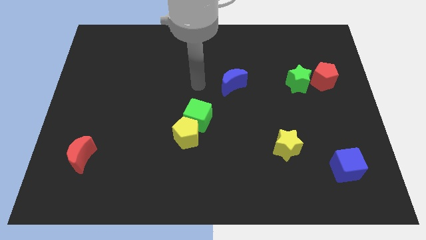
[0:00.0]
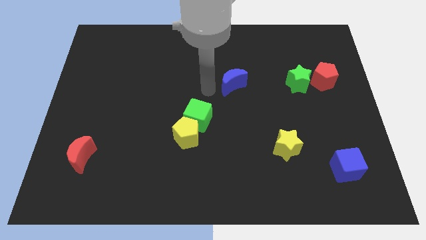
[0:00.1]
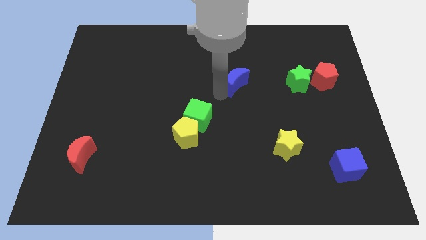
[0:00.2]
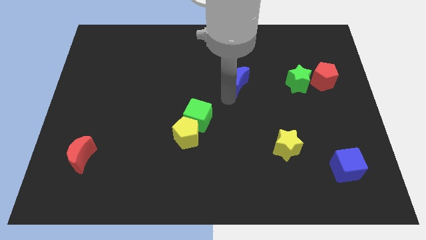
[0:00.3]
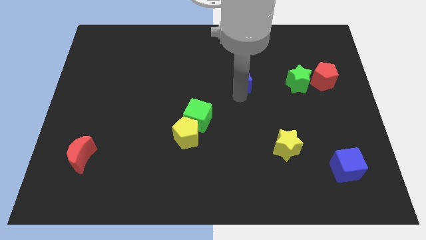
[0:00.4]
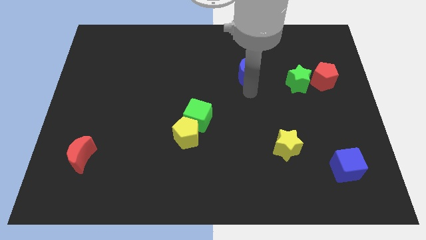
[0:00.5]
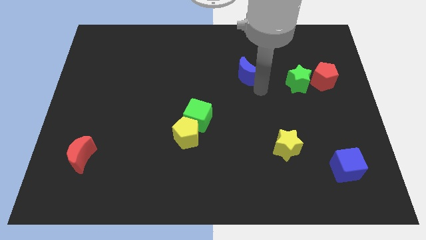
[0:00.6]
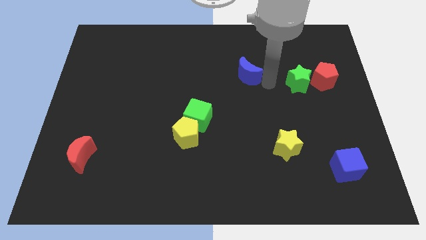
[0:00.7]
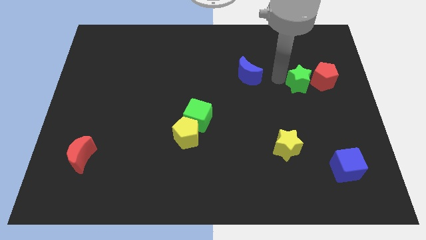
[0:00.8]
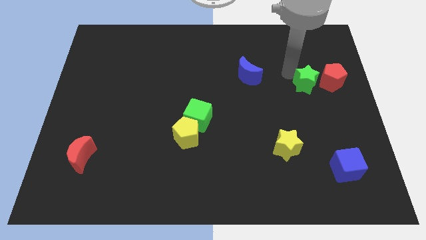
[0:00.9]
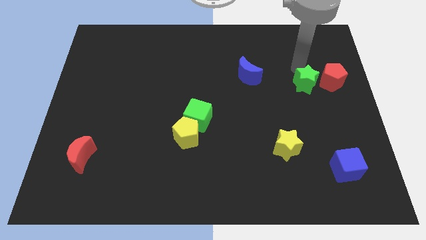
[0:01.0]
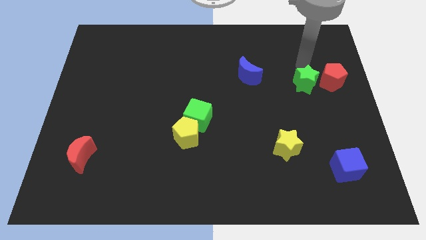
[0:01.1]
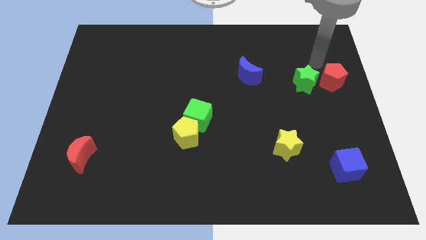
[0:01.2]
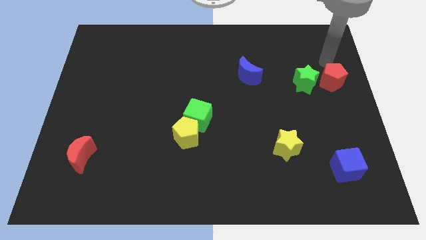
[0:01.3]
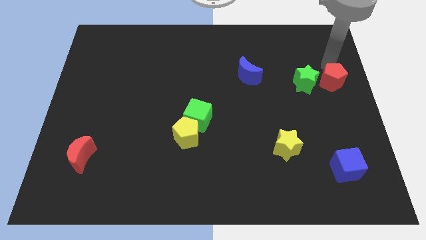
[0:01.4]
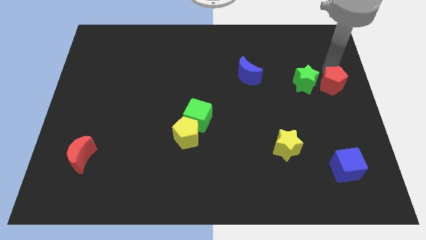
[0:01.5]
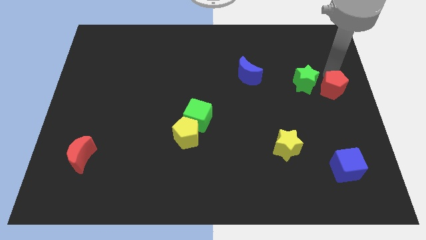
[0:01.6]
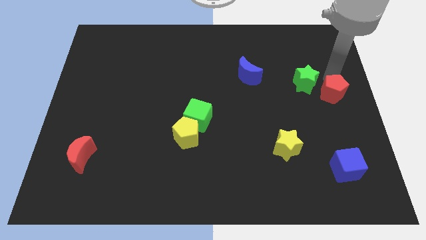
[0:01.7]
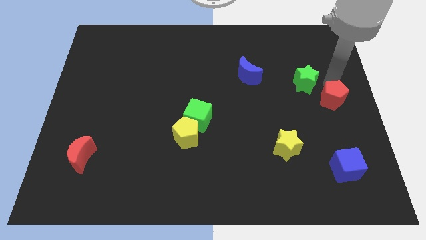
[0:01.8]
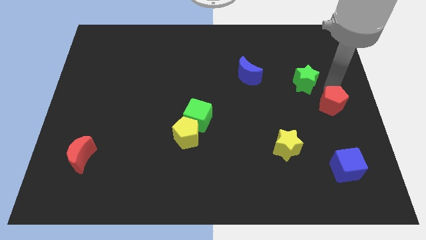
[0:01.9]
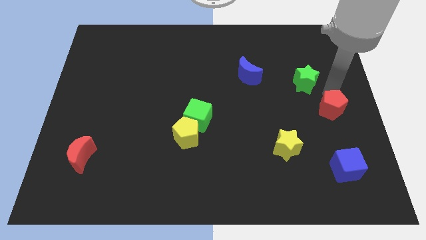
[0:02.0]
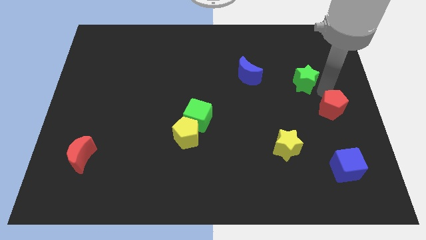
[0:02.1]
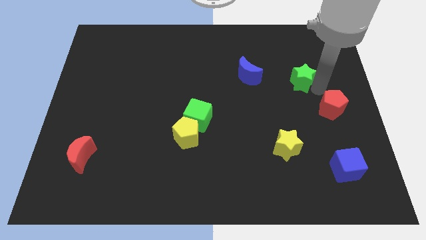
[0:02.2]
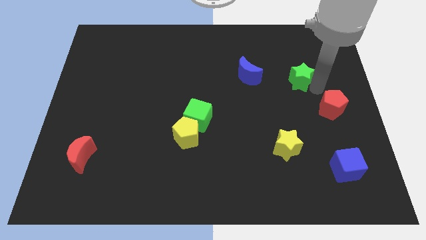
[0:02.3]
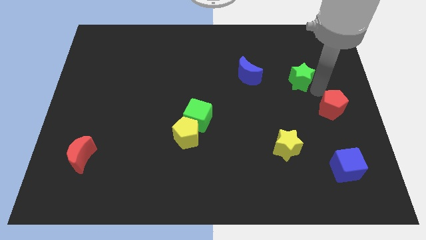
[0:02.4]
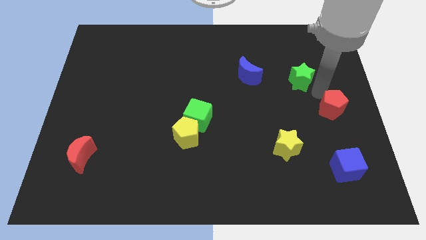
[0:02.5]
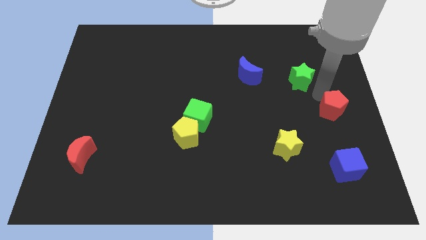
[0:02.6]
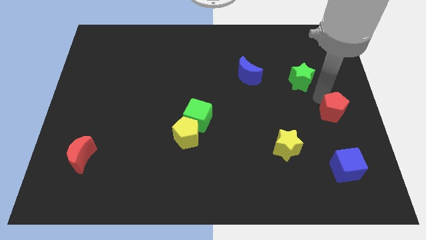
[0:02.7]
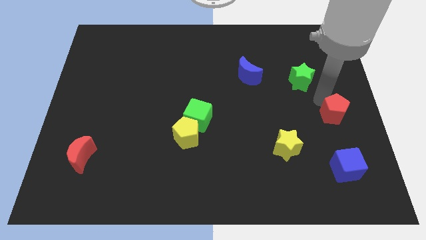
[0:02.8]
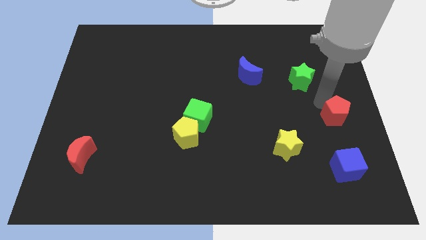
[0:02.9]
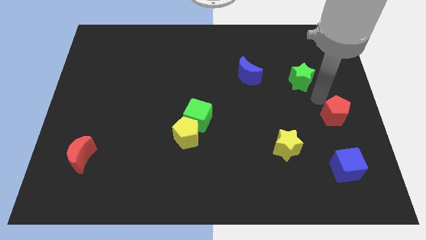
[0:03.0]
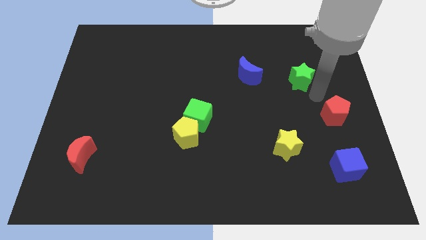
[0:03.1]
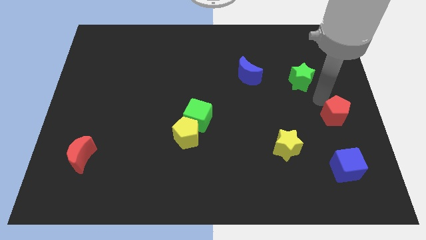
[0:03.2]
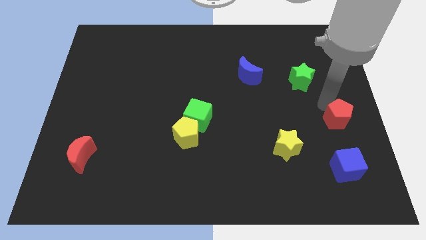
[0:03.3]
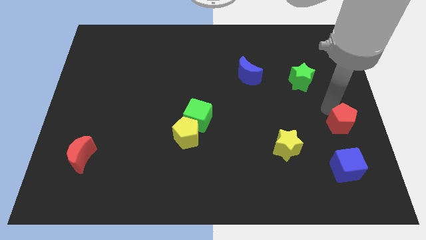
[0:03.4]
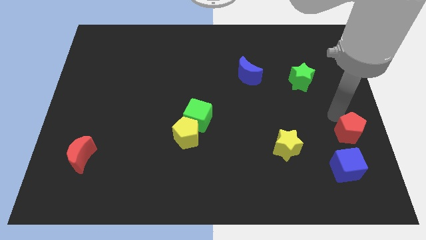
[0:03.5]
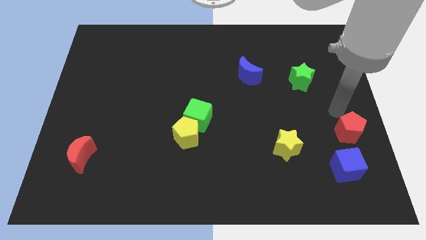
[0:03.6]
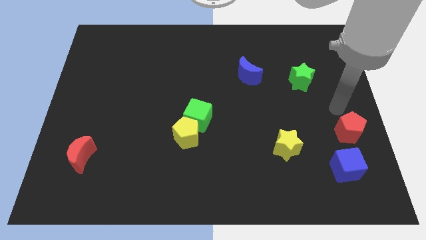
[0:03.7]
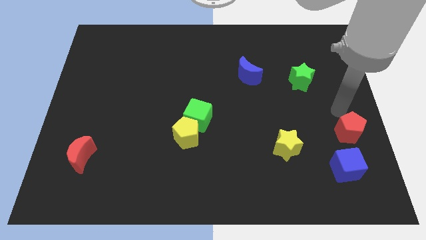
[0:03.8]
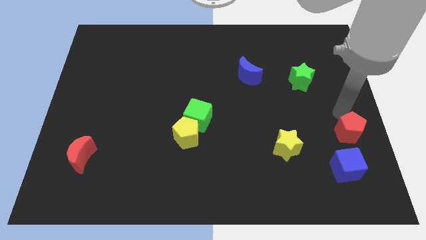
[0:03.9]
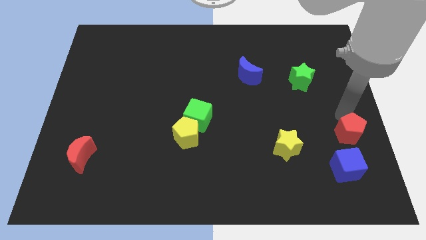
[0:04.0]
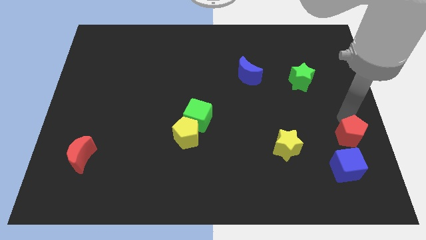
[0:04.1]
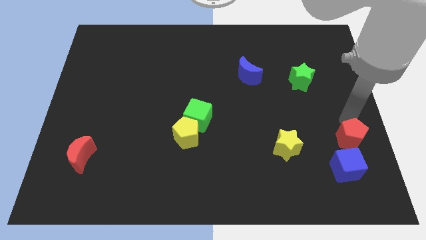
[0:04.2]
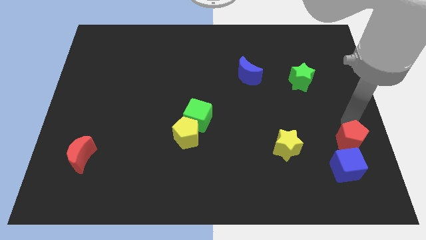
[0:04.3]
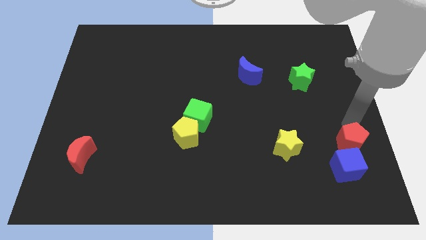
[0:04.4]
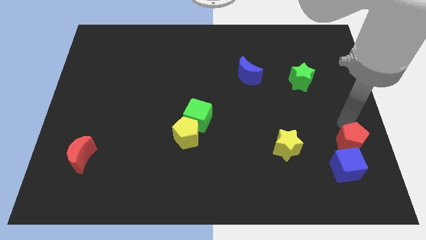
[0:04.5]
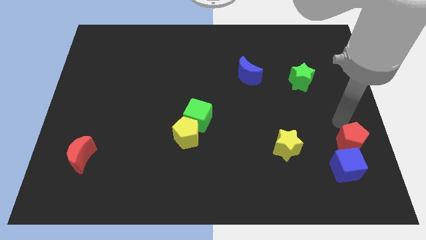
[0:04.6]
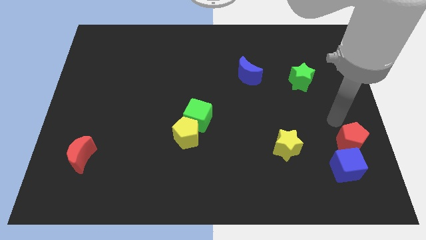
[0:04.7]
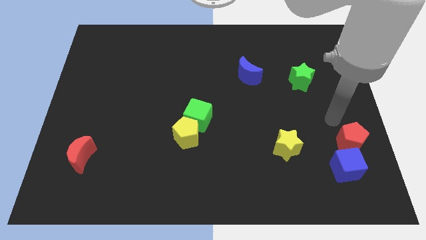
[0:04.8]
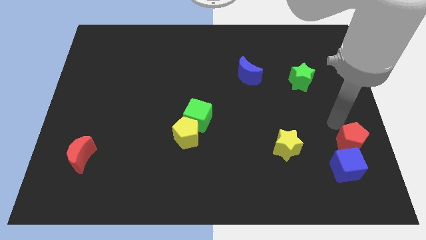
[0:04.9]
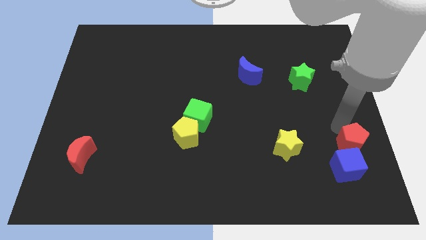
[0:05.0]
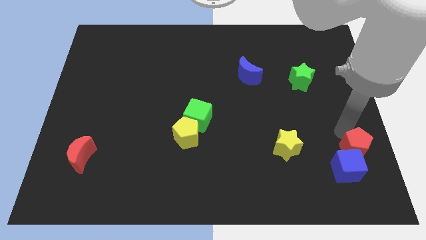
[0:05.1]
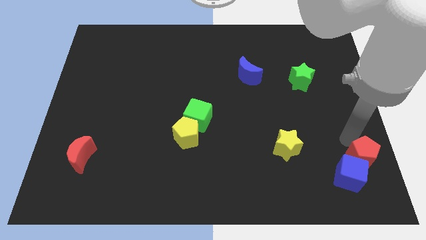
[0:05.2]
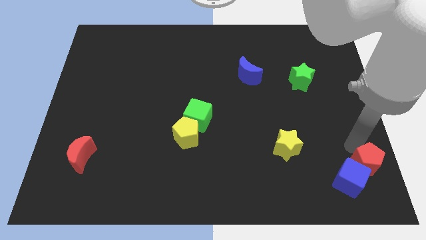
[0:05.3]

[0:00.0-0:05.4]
push the red pentagon to the bottom right of the board

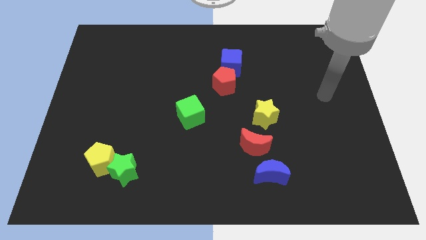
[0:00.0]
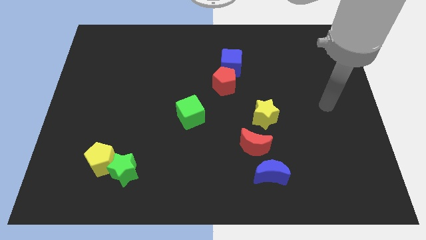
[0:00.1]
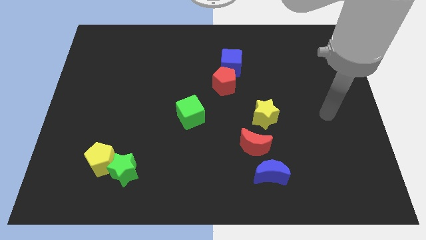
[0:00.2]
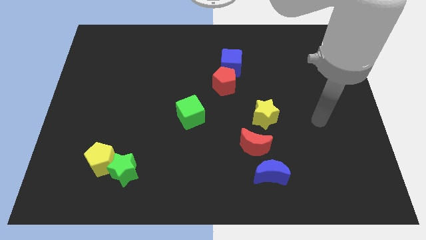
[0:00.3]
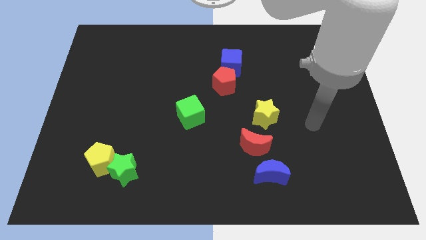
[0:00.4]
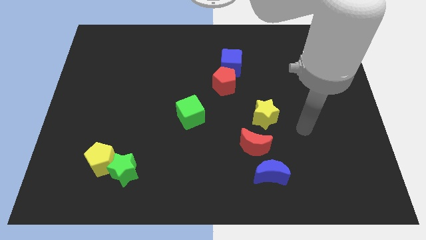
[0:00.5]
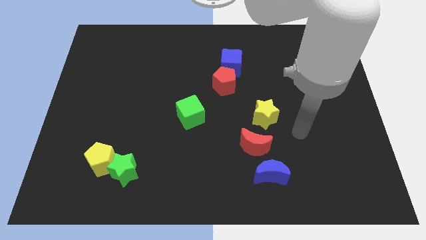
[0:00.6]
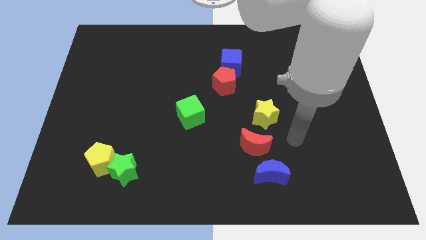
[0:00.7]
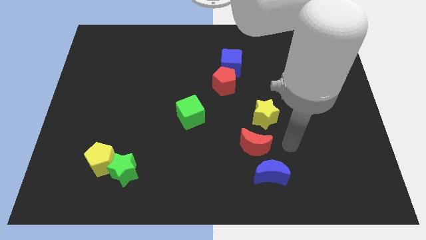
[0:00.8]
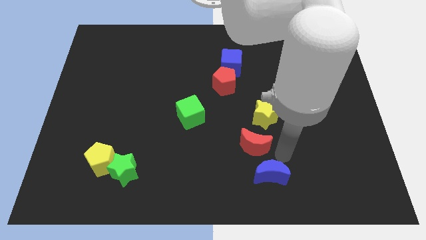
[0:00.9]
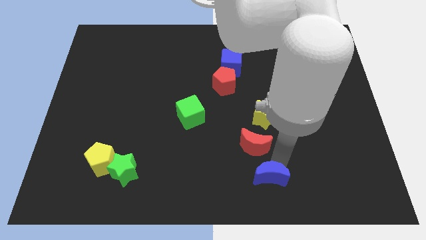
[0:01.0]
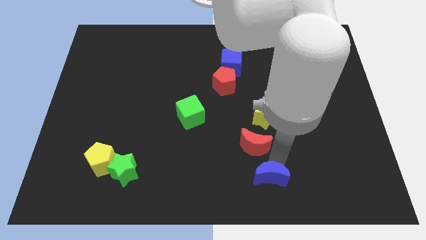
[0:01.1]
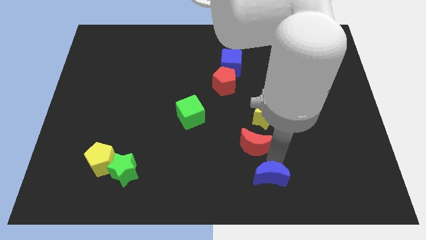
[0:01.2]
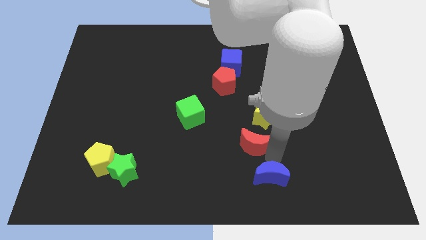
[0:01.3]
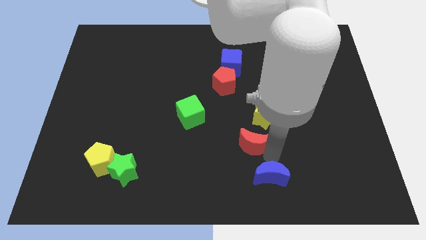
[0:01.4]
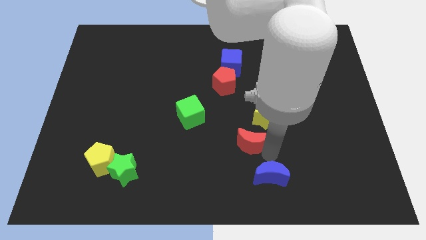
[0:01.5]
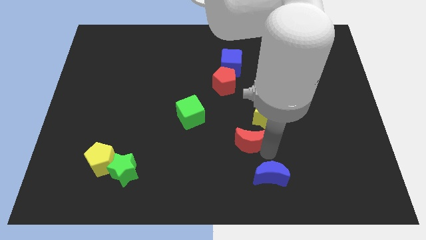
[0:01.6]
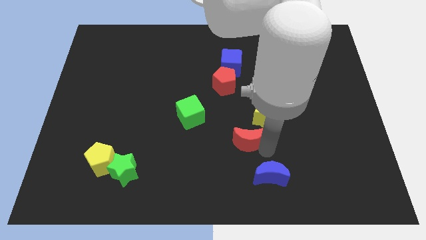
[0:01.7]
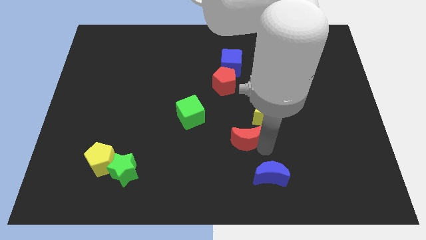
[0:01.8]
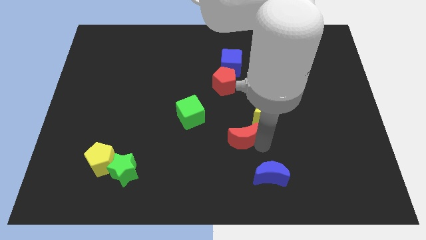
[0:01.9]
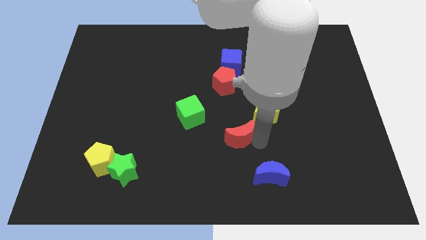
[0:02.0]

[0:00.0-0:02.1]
move the red moon to the center of the board
